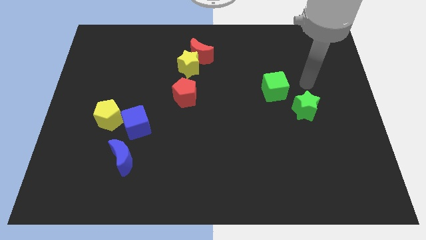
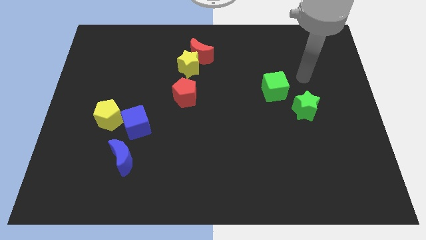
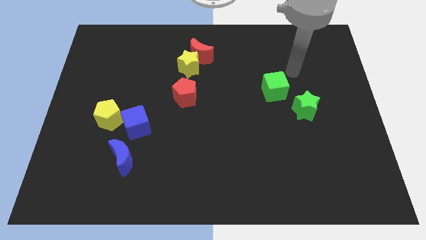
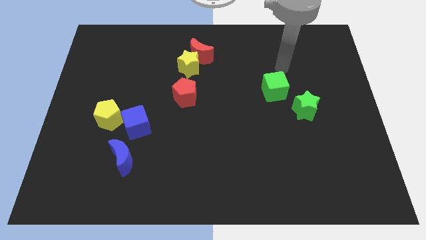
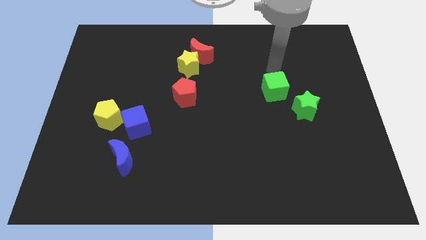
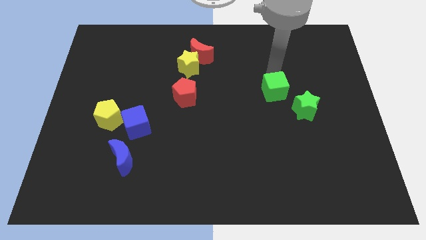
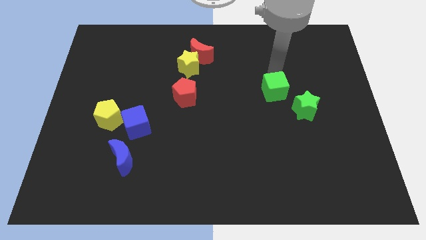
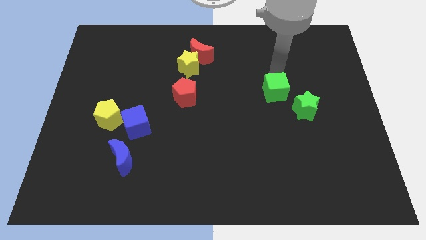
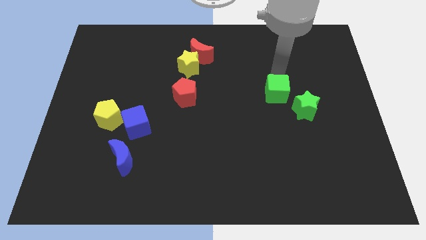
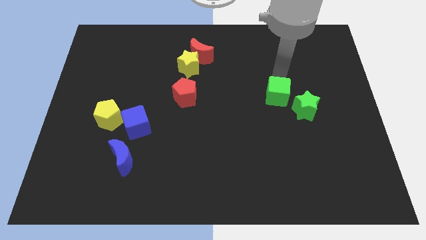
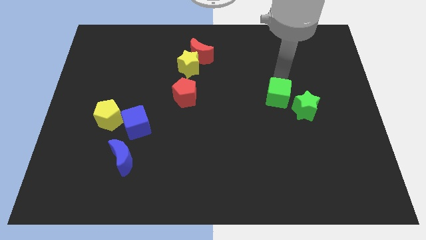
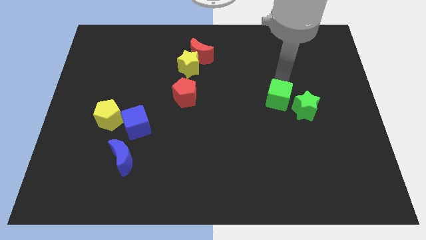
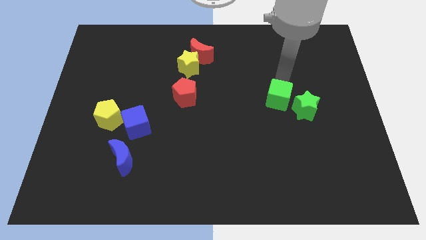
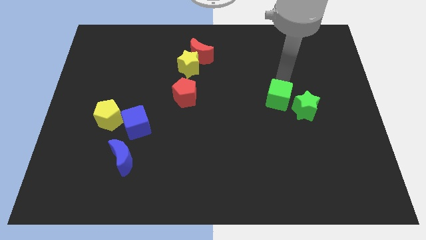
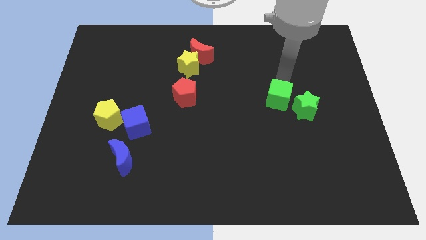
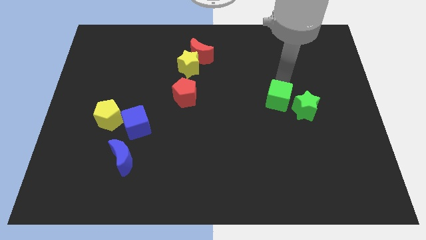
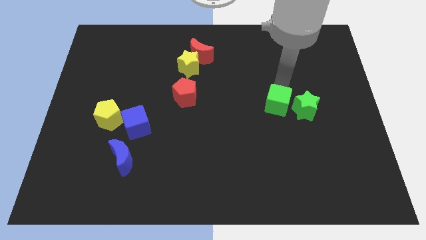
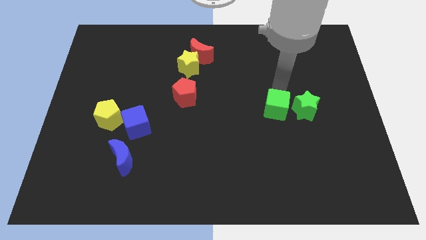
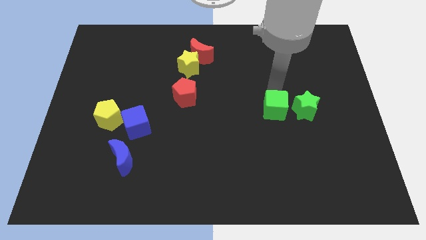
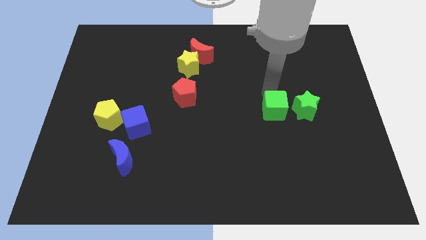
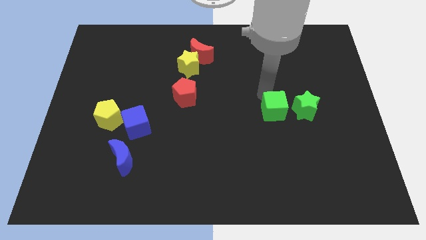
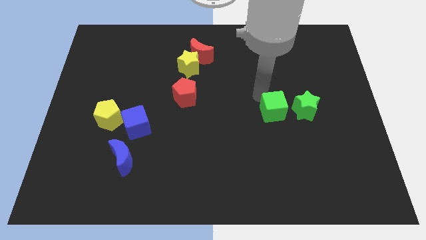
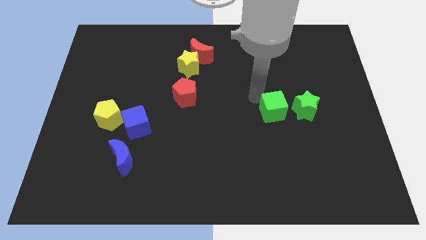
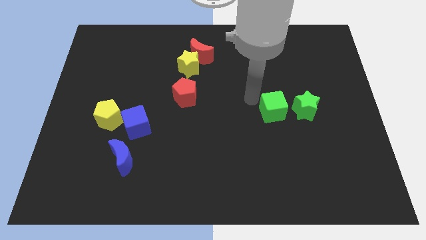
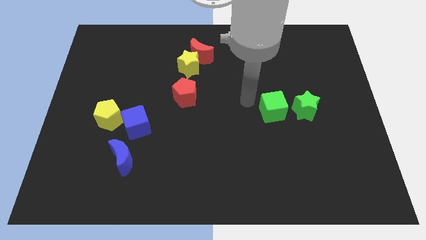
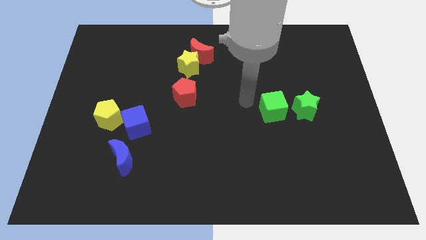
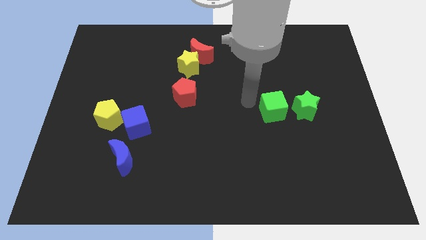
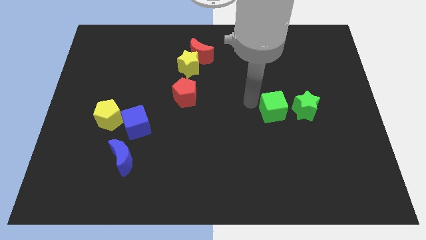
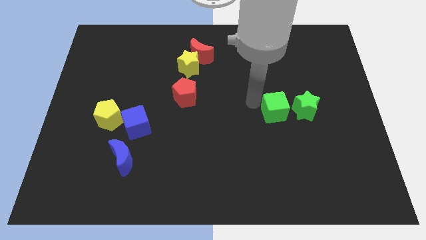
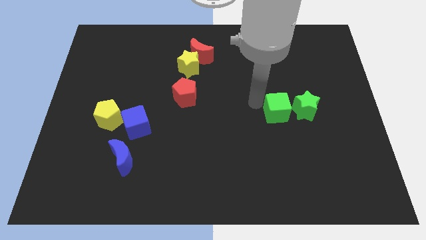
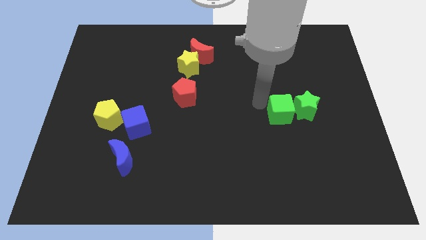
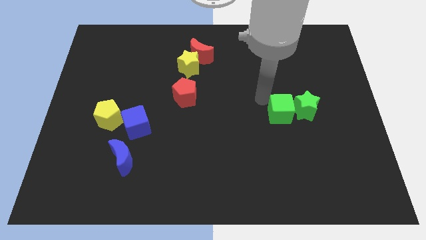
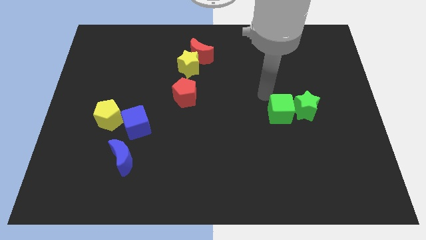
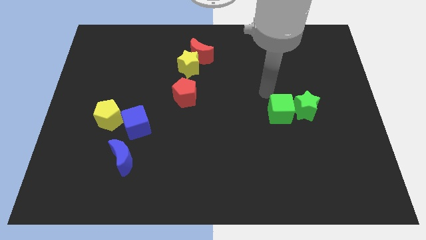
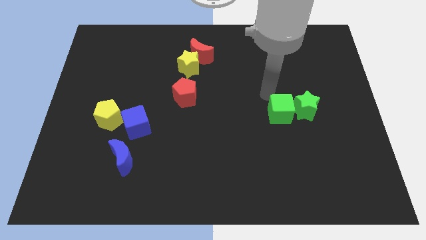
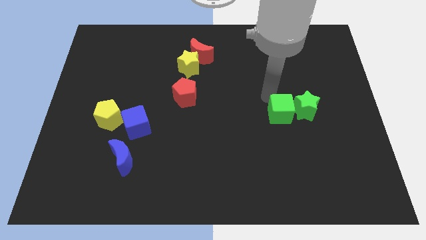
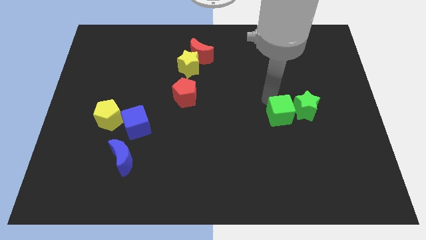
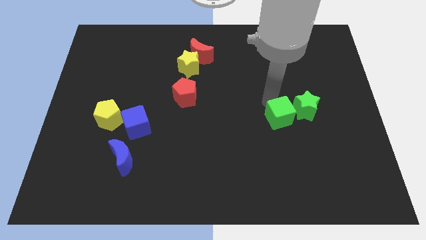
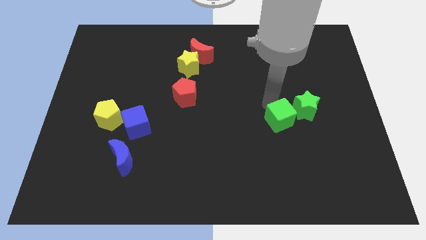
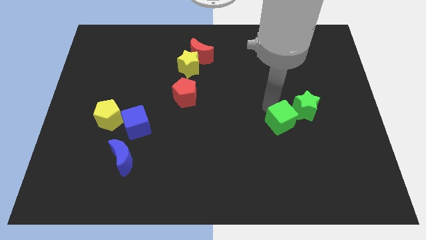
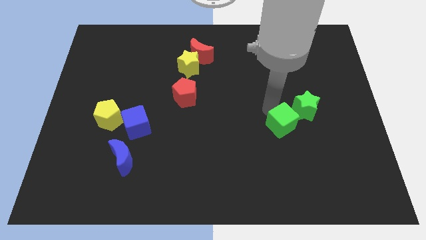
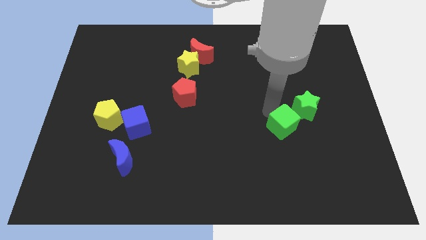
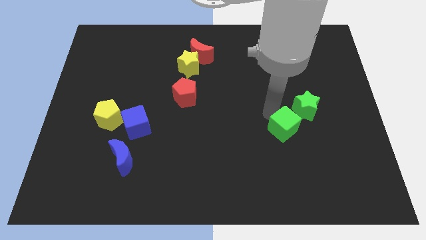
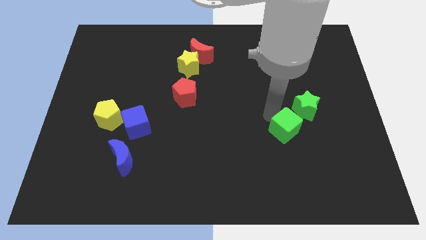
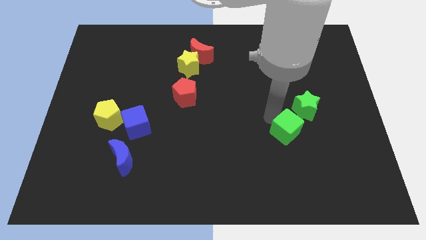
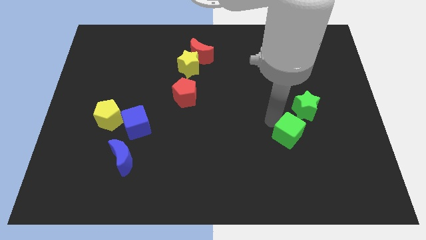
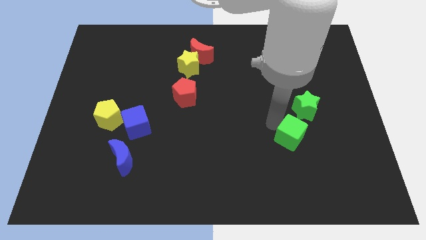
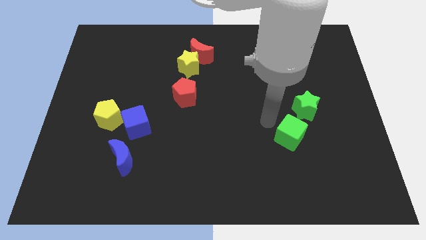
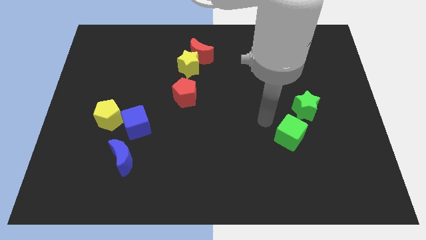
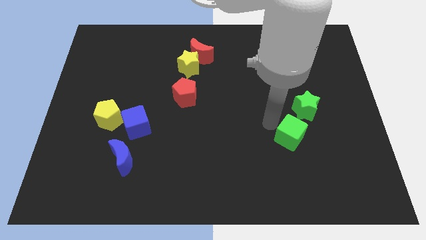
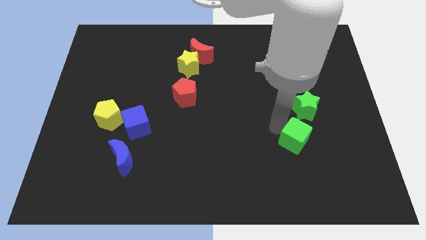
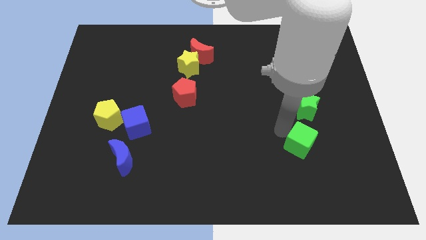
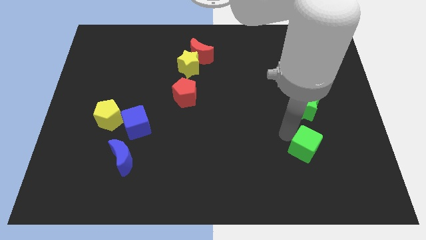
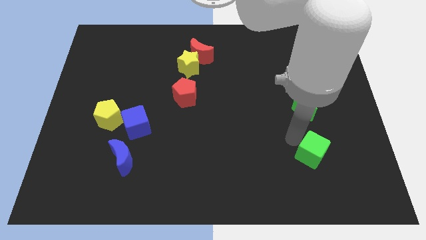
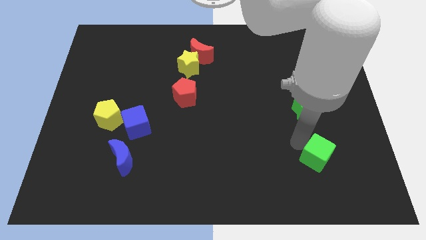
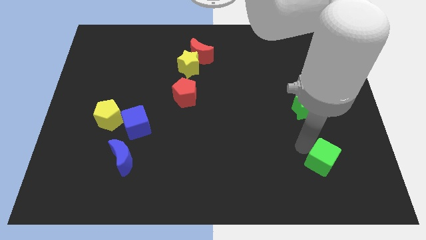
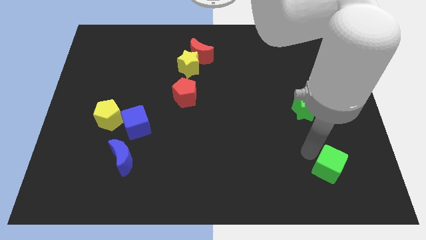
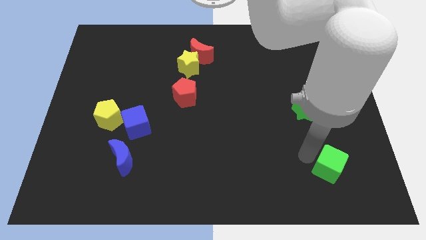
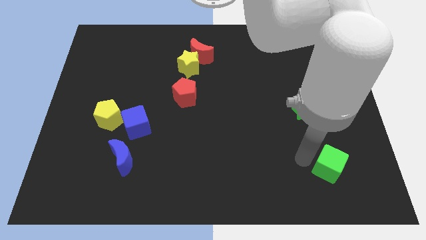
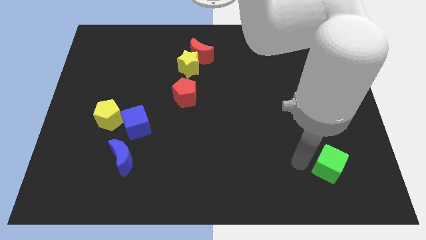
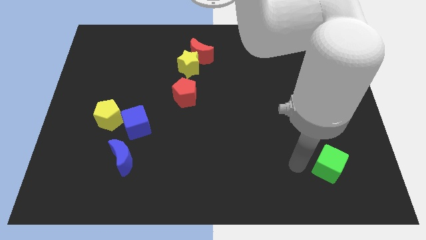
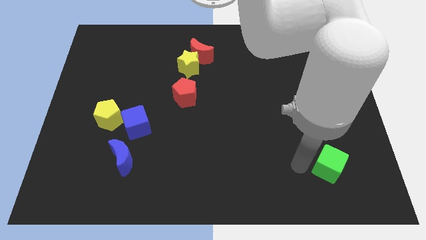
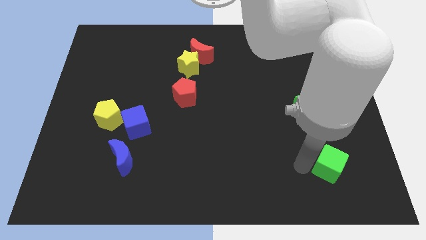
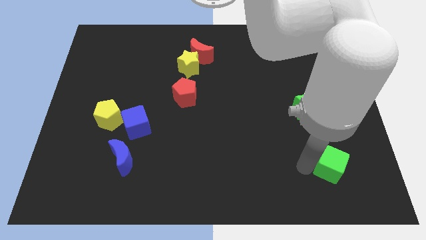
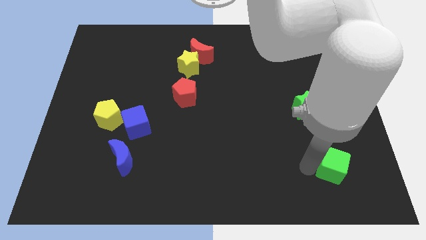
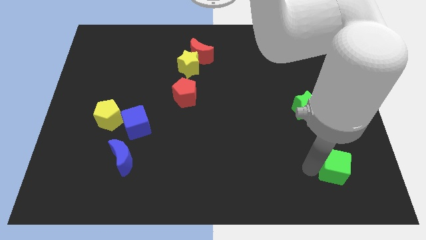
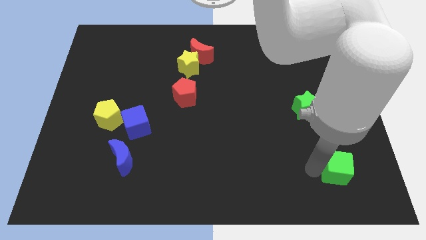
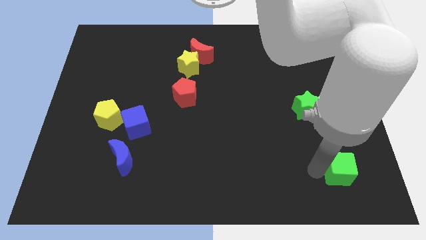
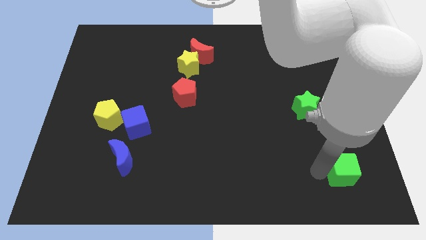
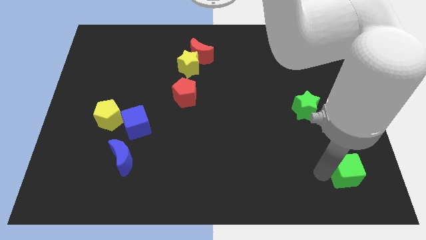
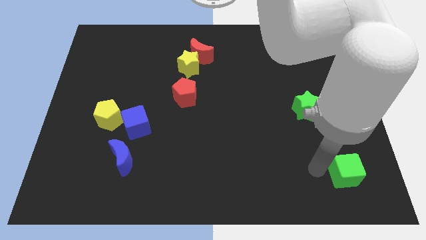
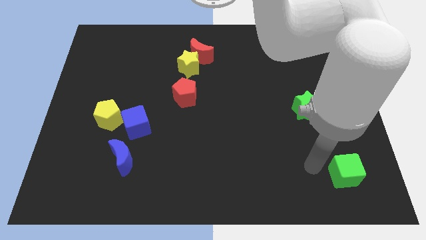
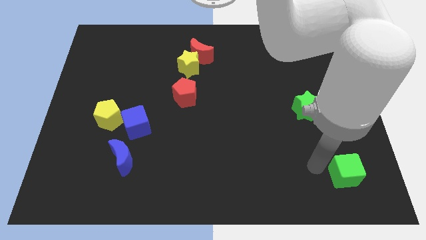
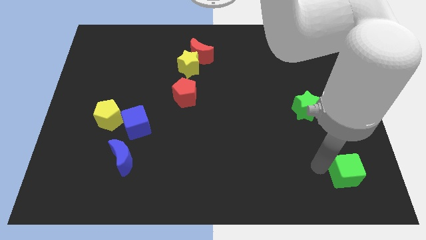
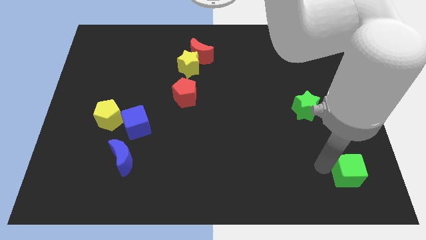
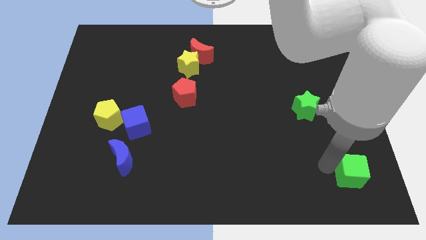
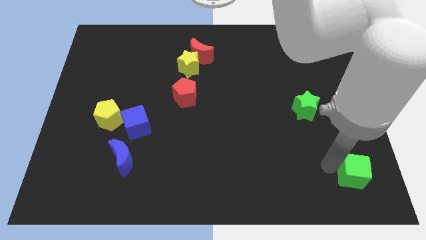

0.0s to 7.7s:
move the green cube to the bottom right of the board
